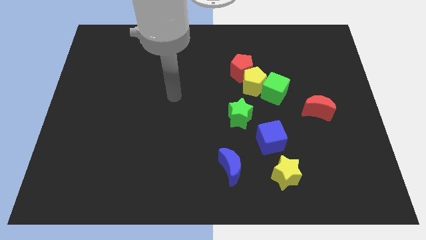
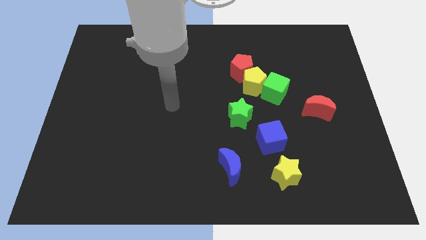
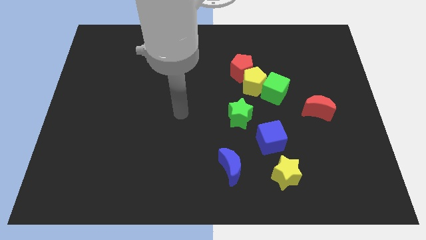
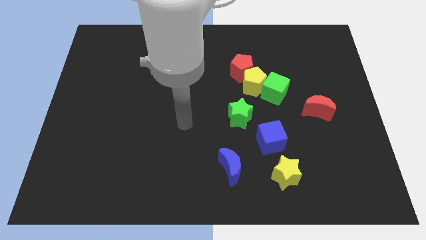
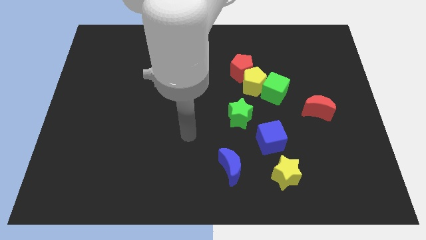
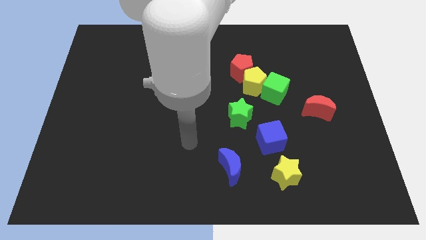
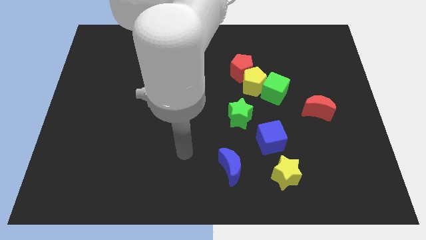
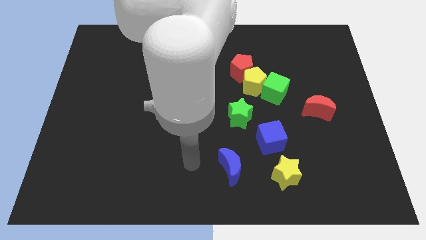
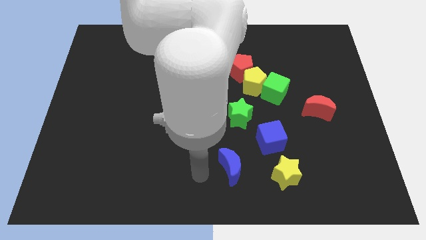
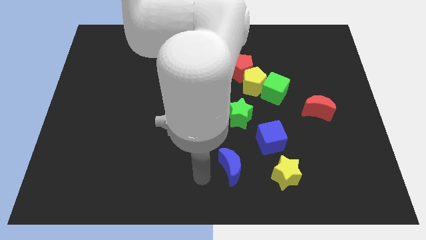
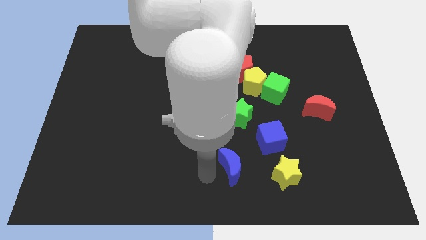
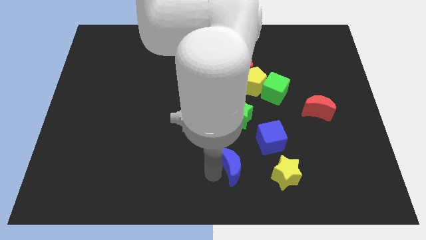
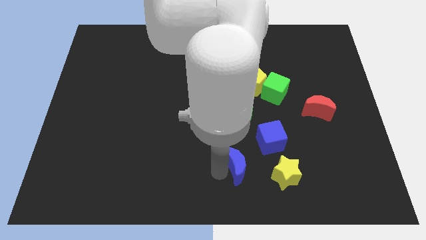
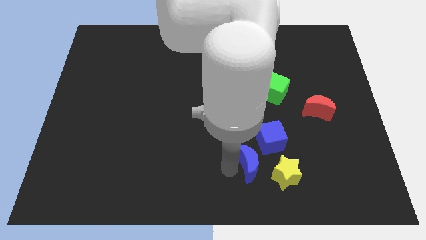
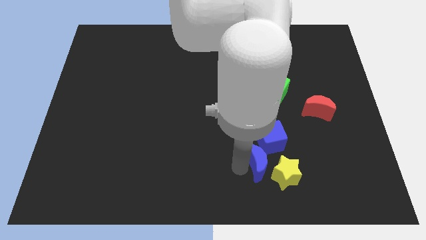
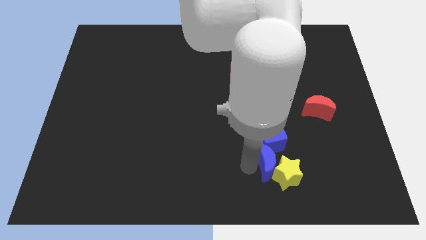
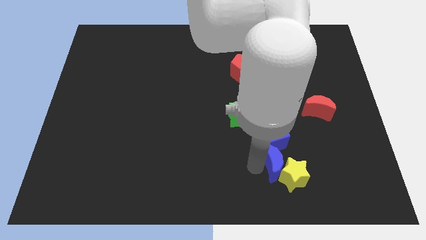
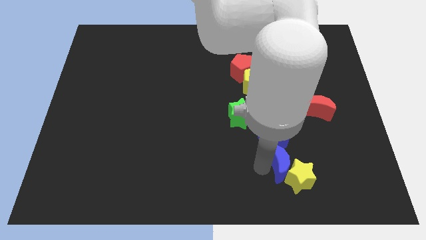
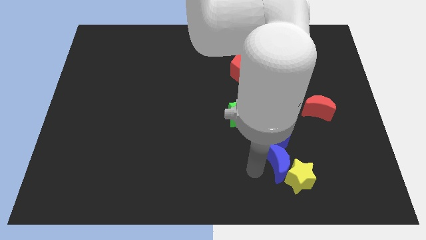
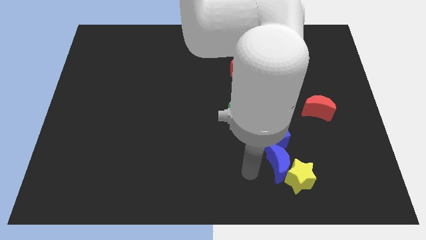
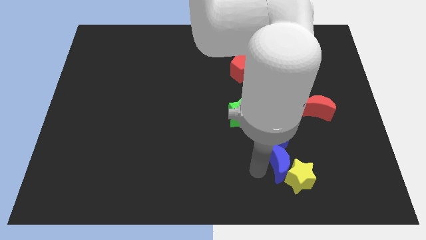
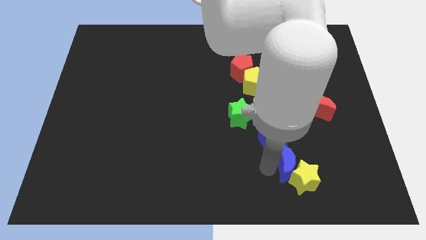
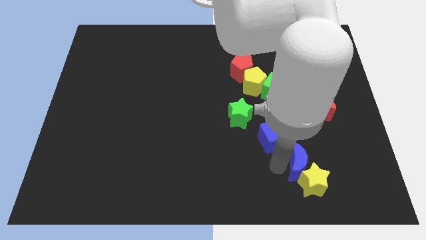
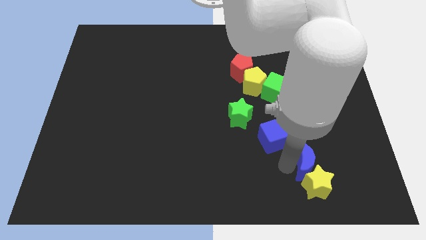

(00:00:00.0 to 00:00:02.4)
push the blue moon diagonally up and to the right of the yellow star

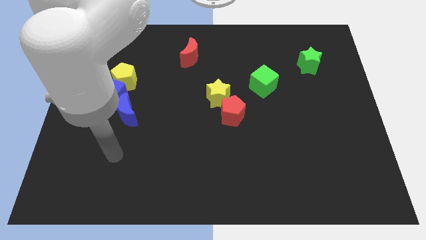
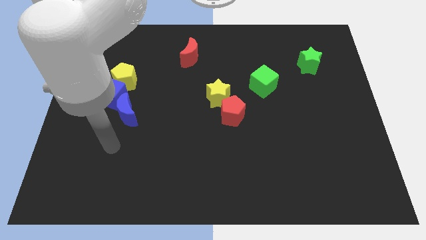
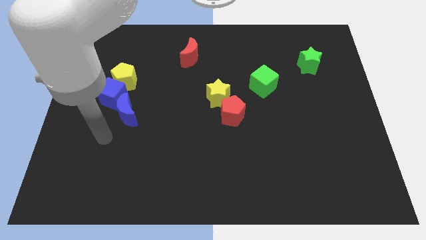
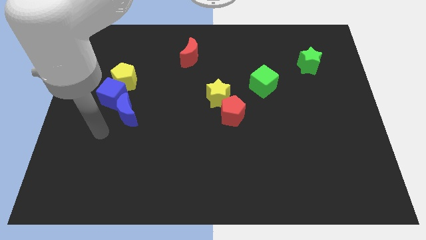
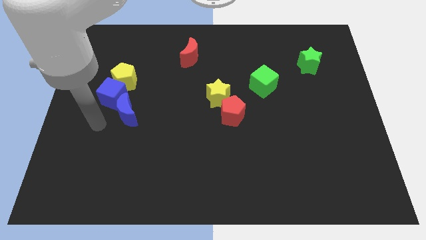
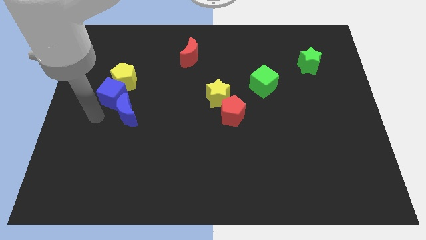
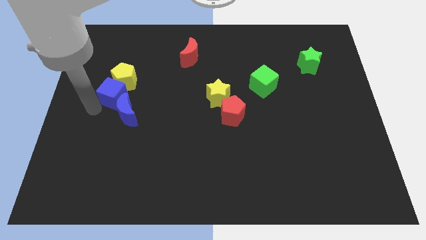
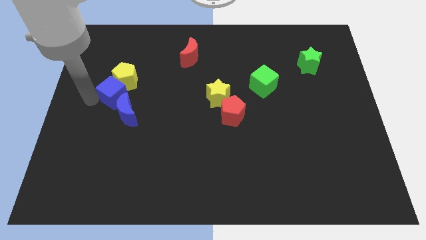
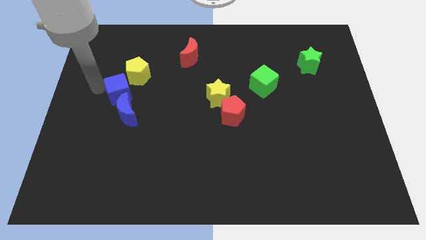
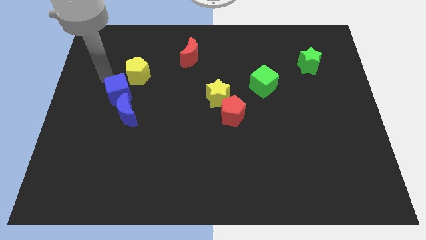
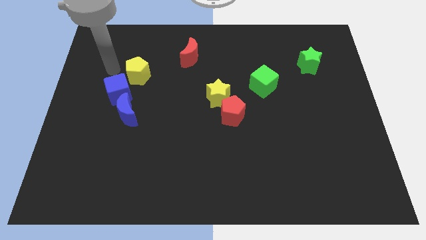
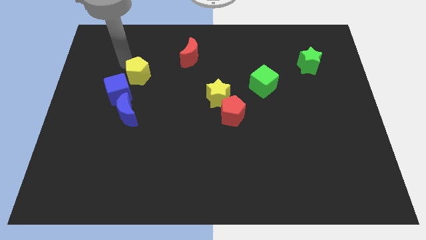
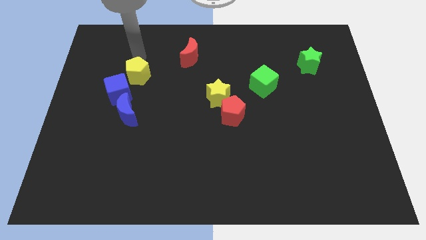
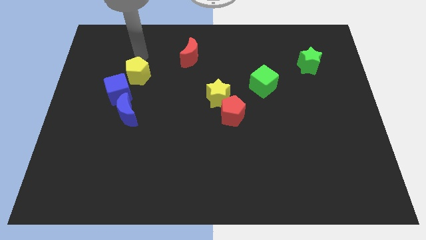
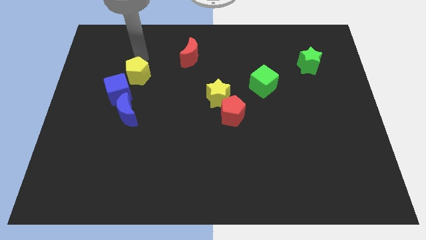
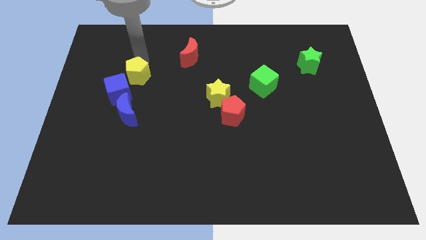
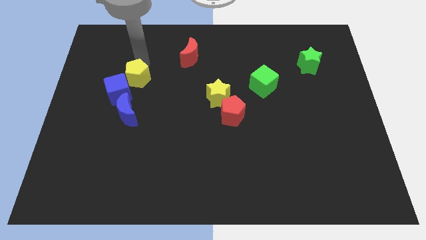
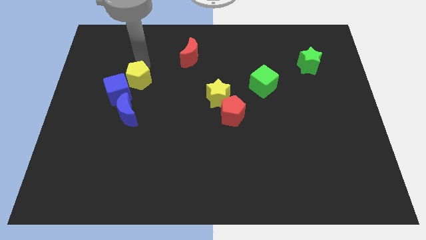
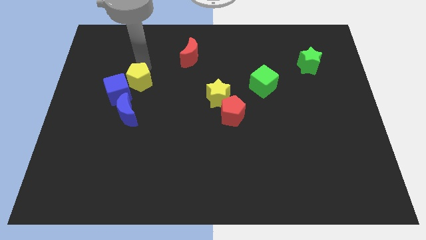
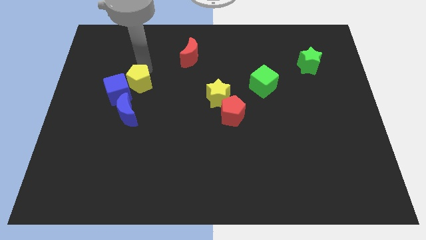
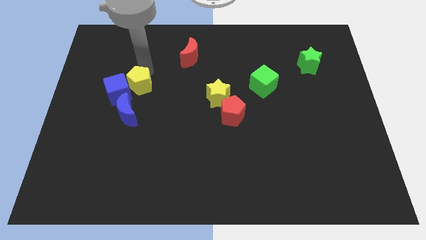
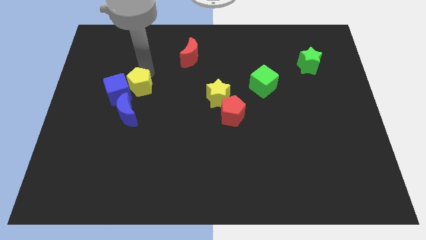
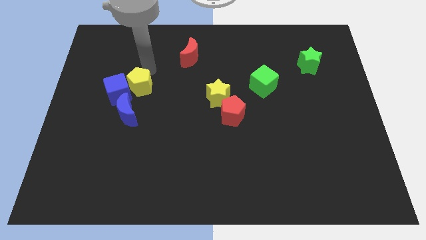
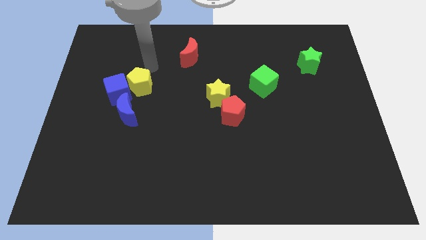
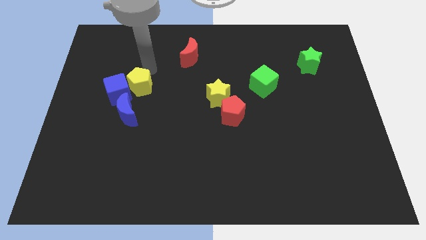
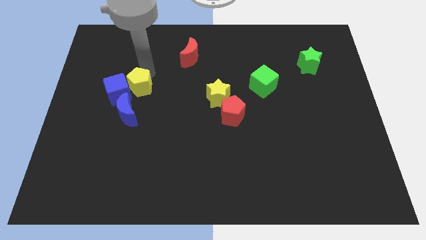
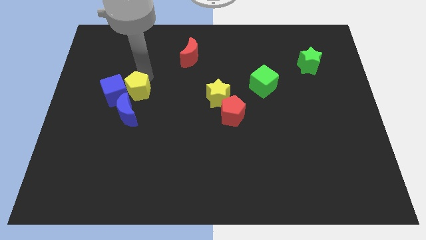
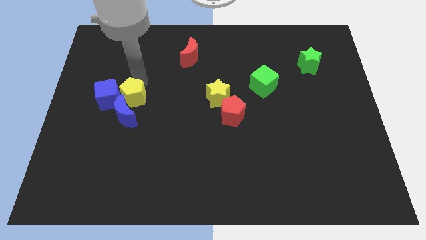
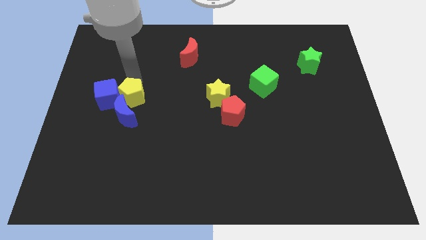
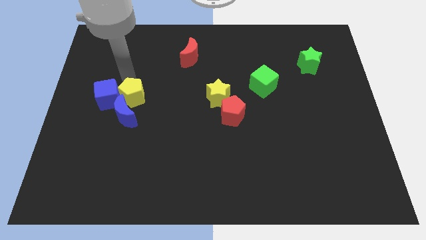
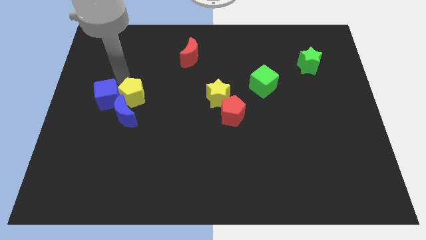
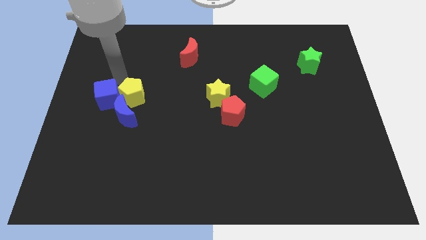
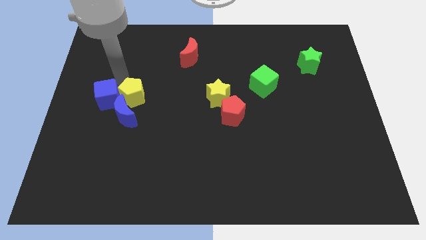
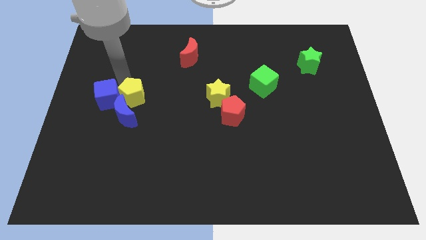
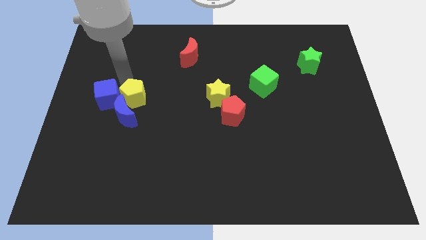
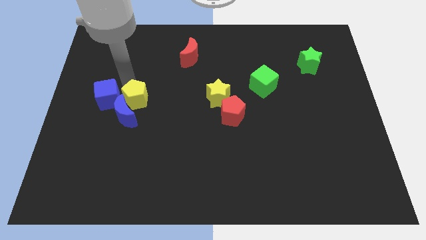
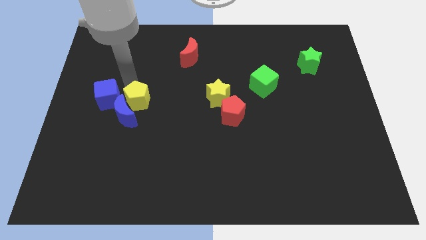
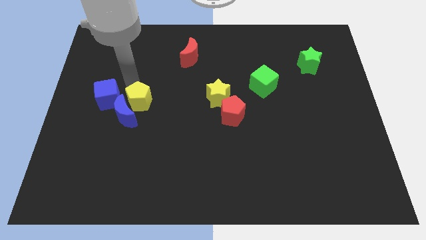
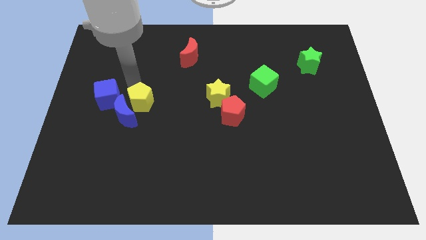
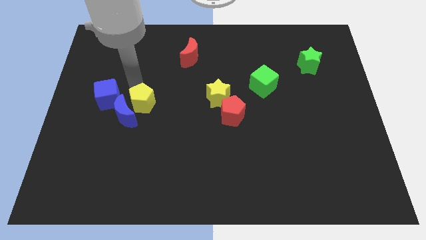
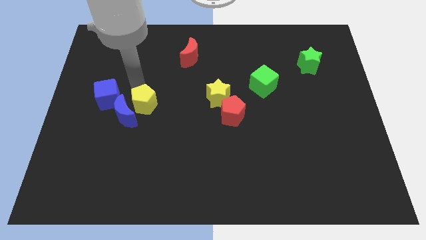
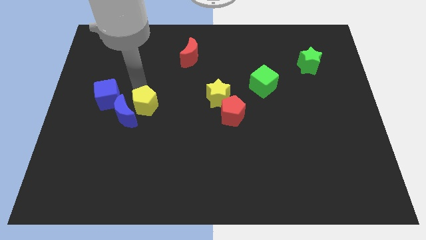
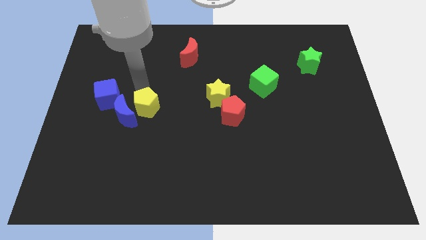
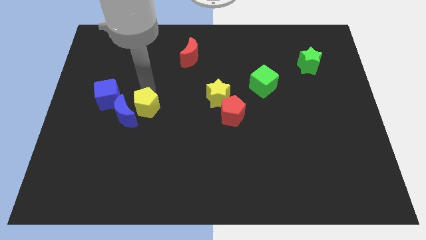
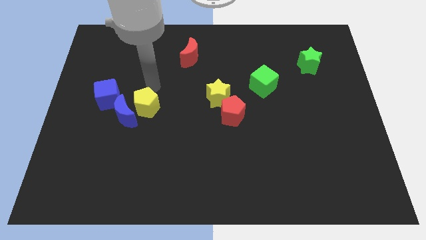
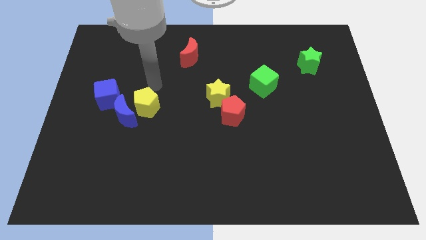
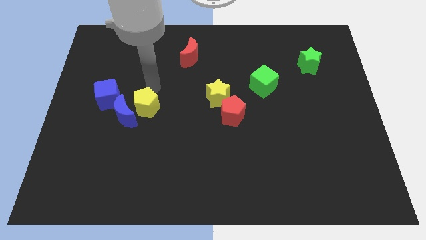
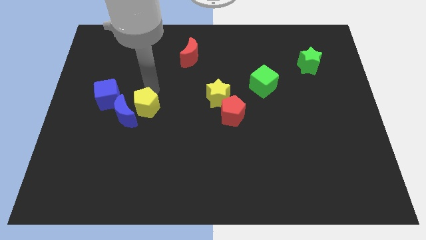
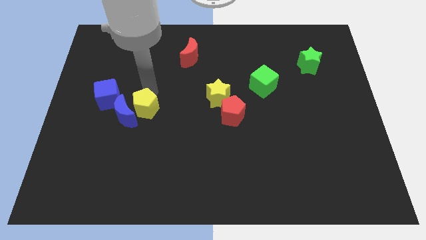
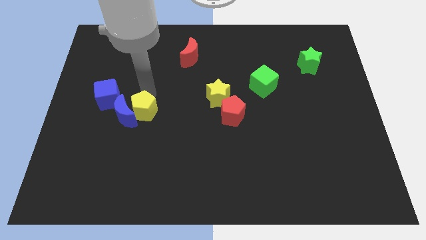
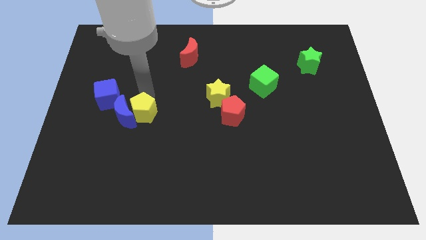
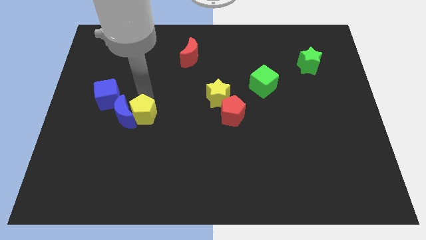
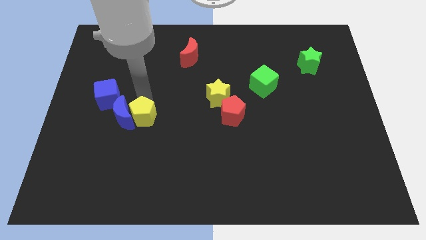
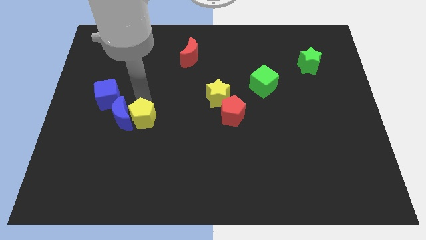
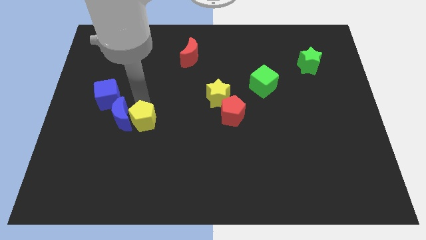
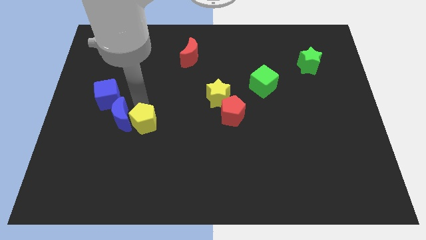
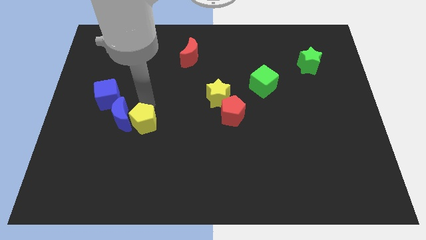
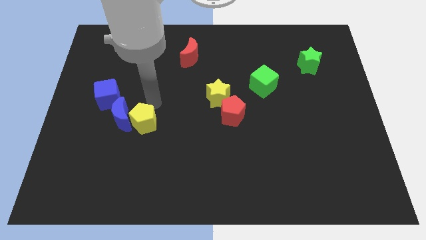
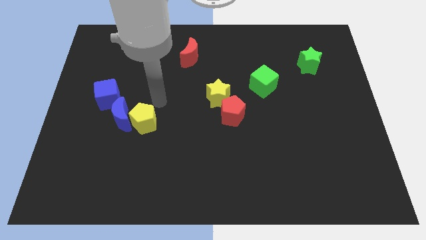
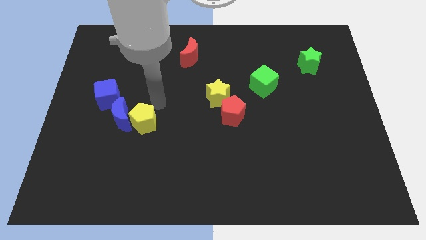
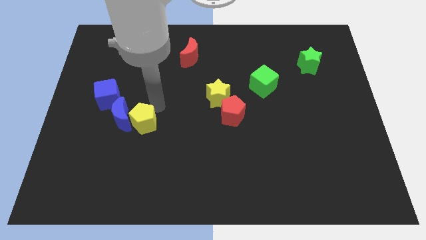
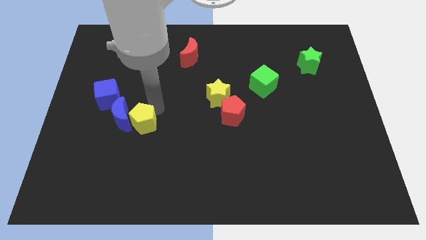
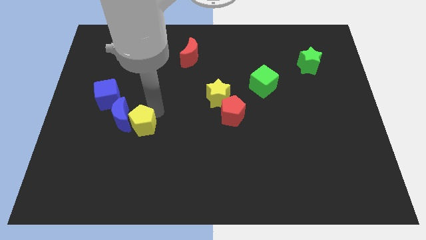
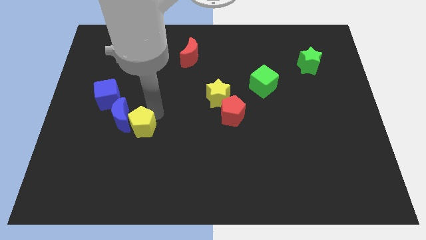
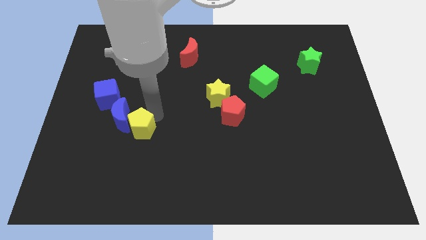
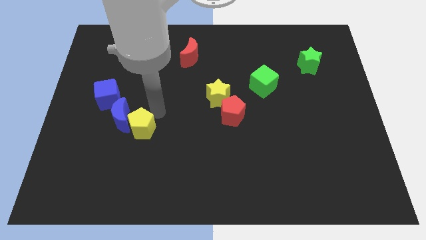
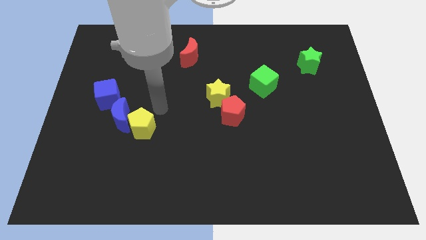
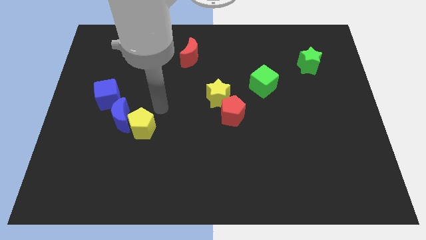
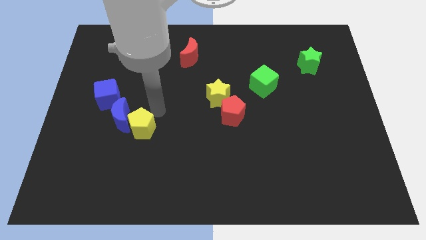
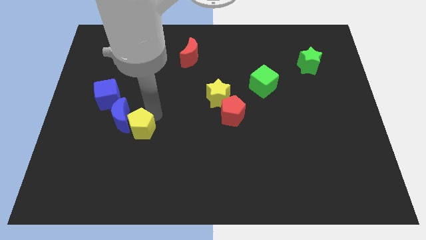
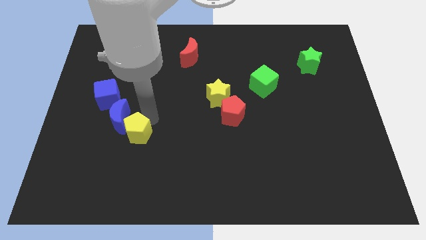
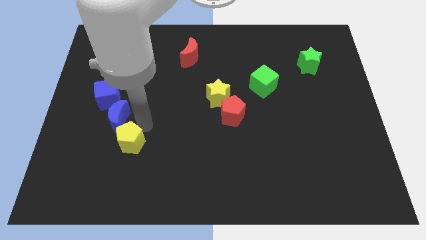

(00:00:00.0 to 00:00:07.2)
move the yellow pentagon to the bottom of the blue moon
